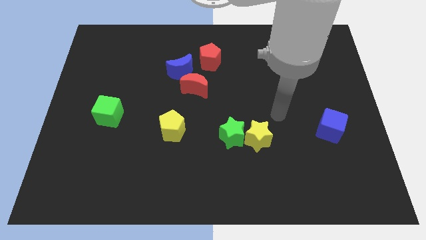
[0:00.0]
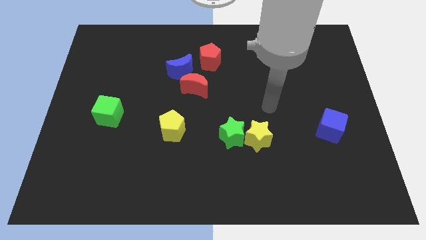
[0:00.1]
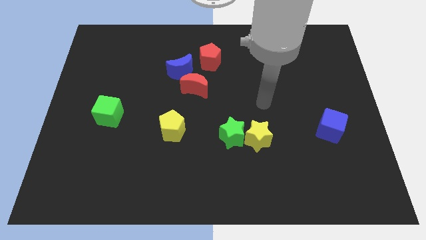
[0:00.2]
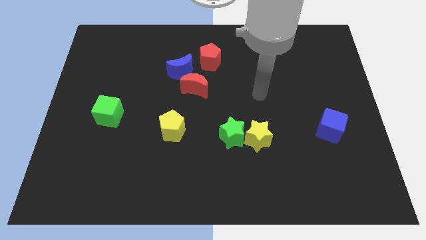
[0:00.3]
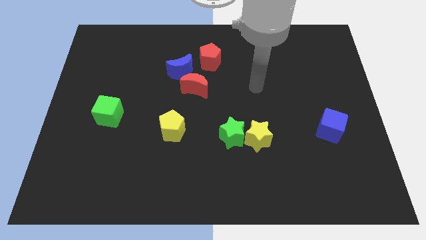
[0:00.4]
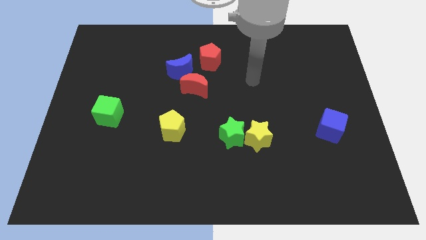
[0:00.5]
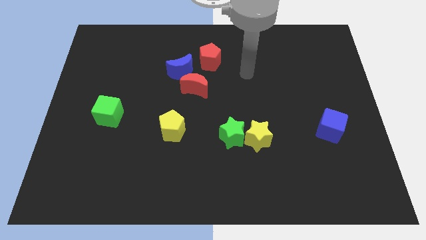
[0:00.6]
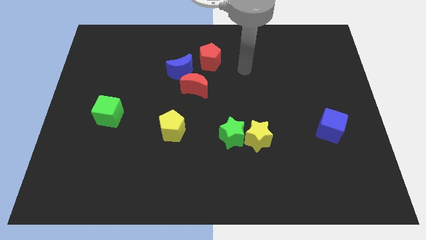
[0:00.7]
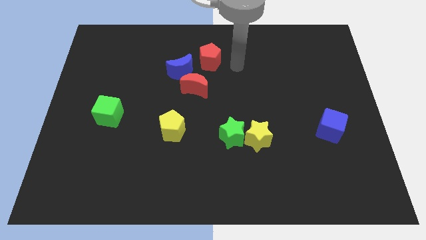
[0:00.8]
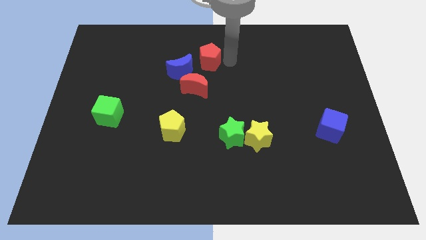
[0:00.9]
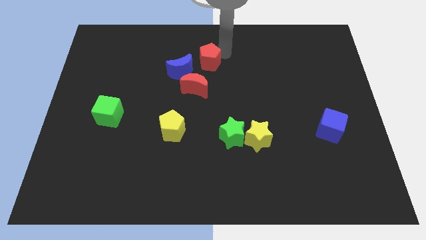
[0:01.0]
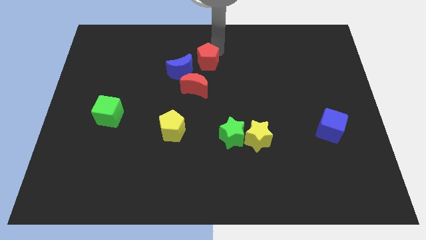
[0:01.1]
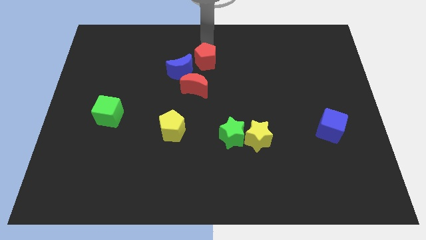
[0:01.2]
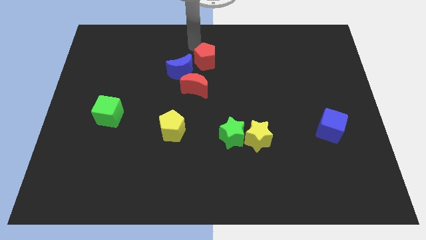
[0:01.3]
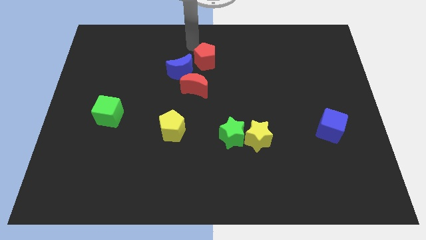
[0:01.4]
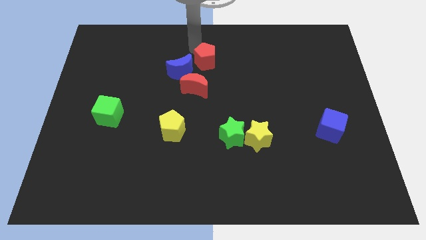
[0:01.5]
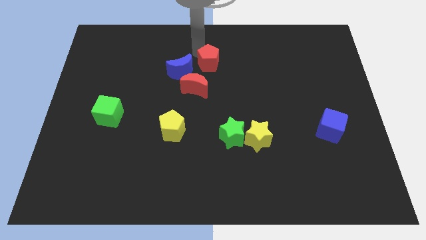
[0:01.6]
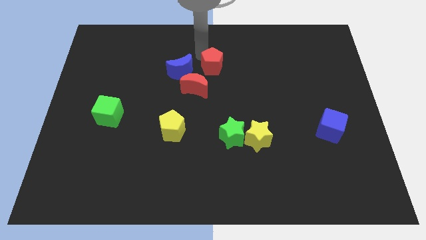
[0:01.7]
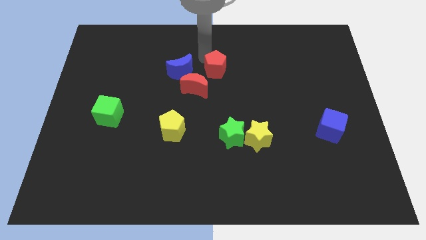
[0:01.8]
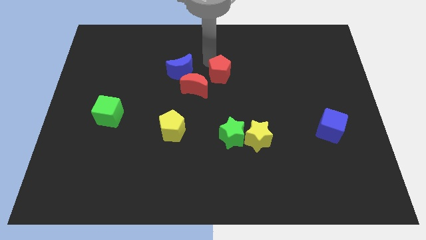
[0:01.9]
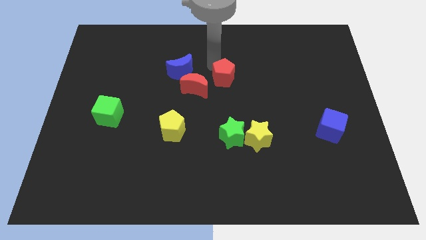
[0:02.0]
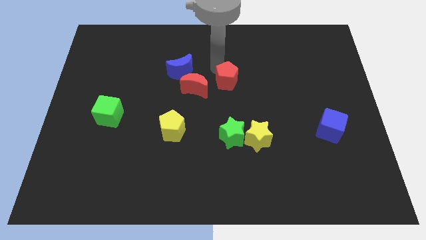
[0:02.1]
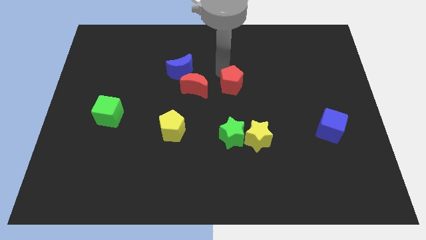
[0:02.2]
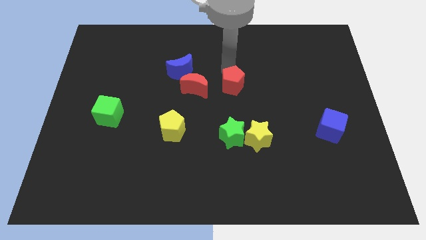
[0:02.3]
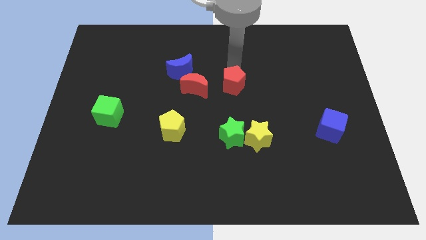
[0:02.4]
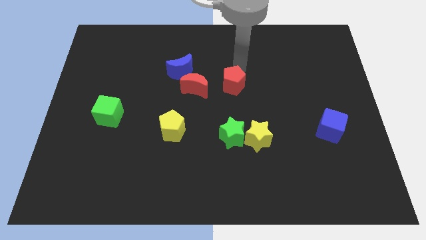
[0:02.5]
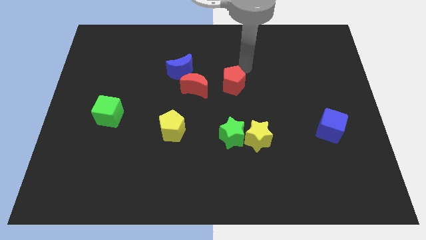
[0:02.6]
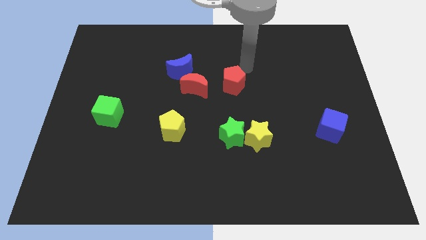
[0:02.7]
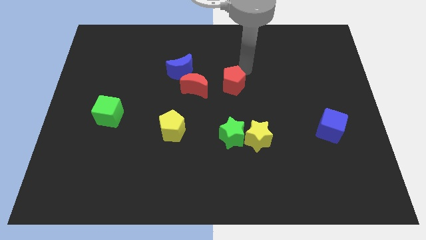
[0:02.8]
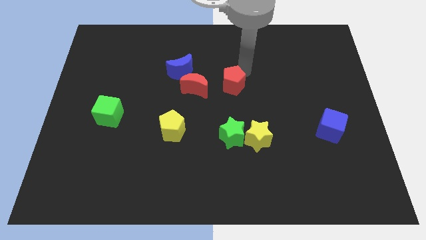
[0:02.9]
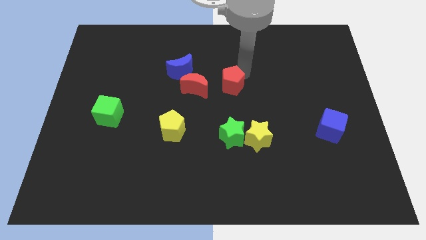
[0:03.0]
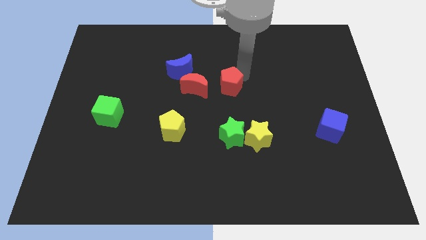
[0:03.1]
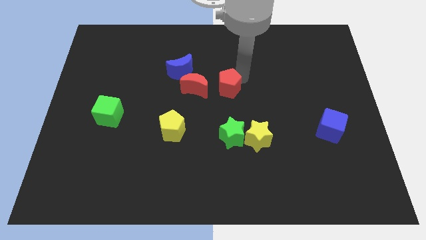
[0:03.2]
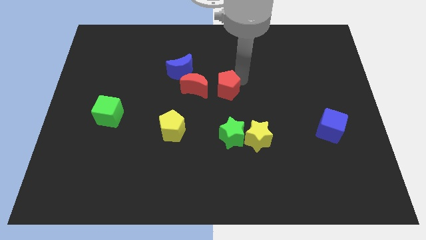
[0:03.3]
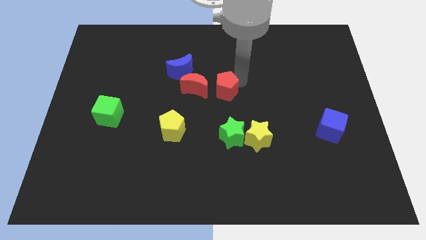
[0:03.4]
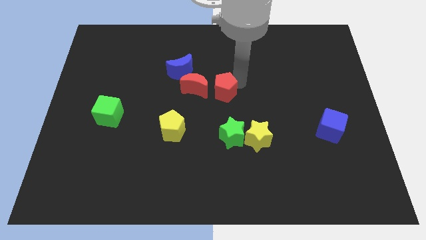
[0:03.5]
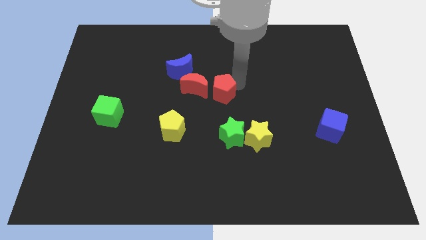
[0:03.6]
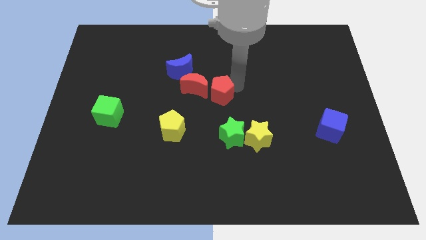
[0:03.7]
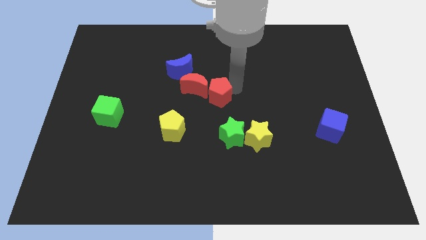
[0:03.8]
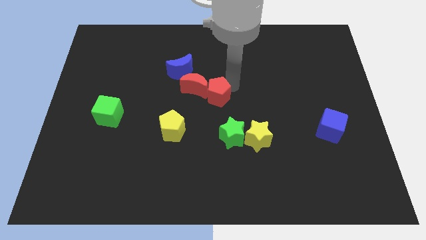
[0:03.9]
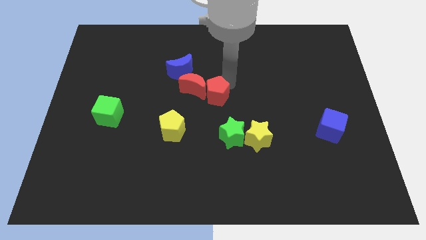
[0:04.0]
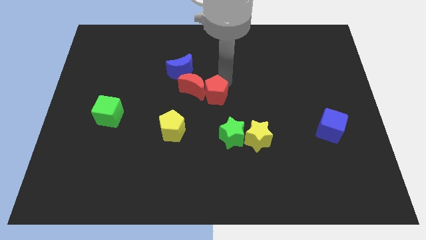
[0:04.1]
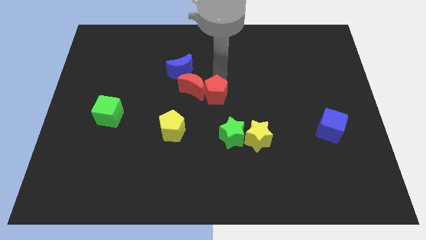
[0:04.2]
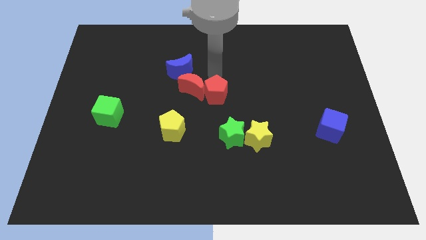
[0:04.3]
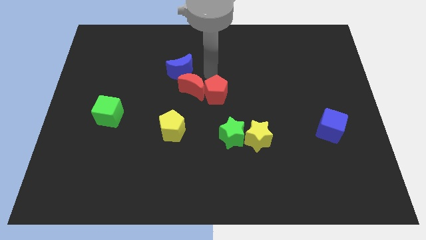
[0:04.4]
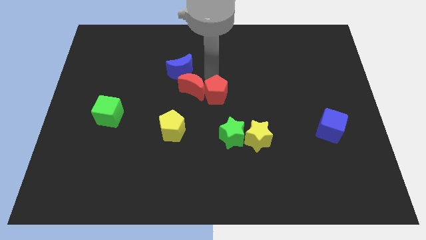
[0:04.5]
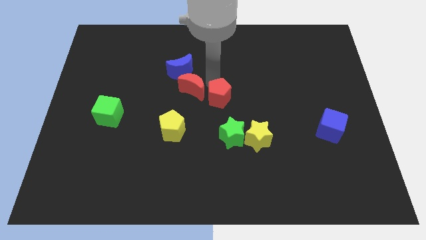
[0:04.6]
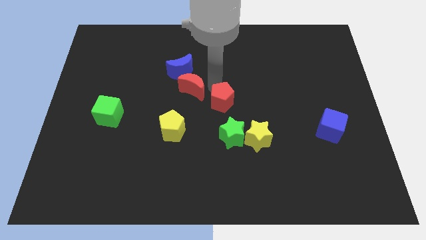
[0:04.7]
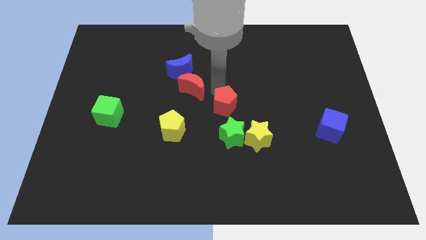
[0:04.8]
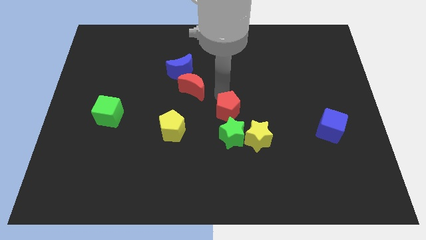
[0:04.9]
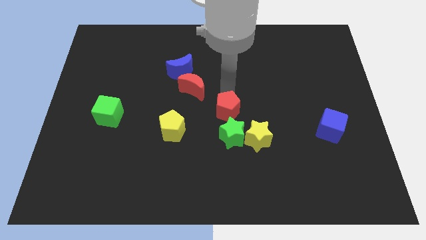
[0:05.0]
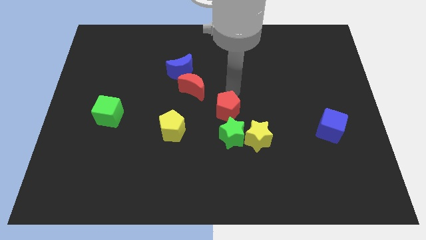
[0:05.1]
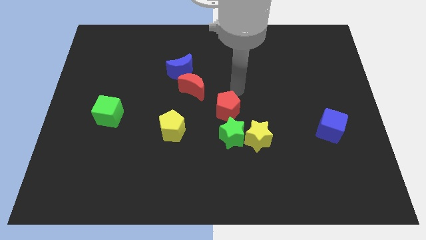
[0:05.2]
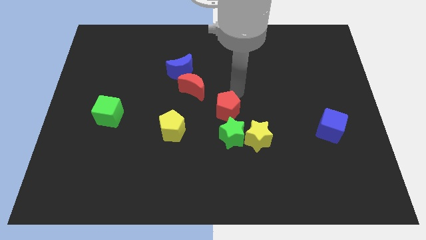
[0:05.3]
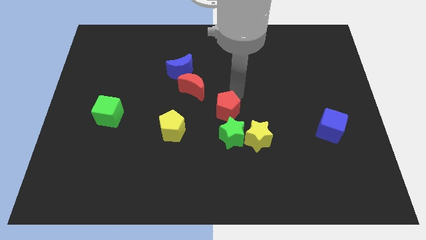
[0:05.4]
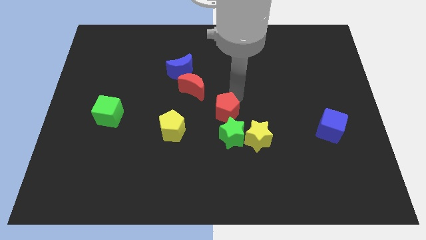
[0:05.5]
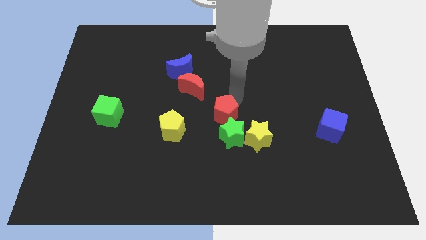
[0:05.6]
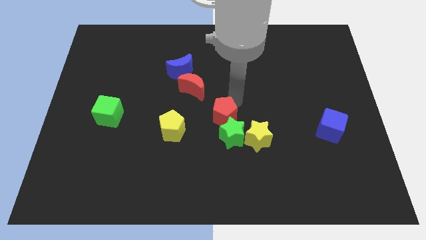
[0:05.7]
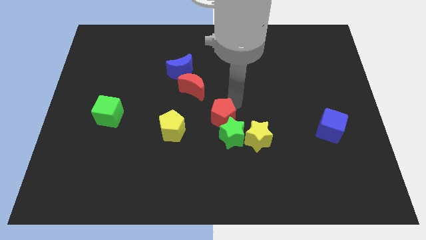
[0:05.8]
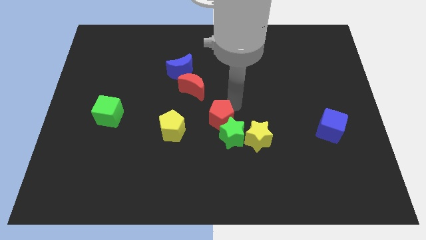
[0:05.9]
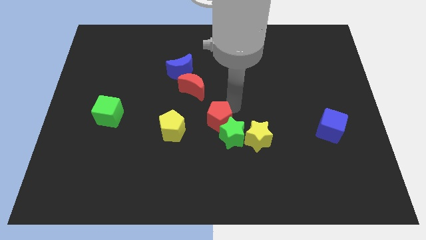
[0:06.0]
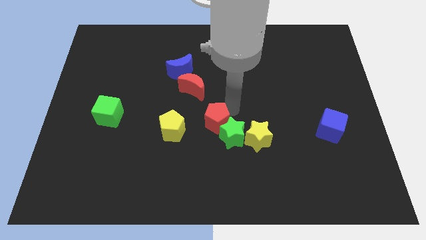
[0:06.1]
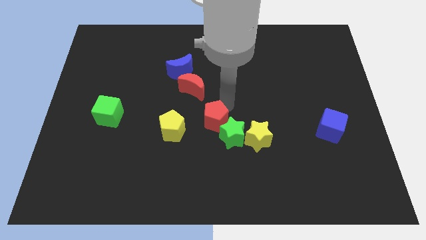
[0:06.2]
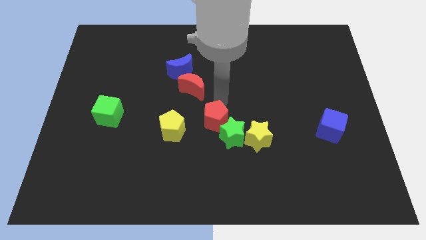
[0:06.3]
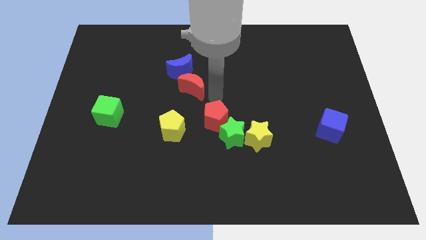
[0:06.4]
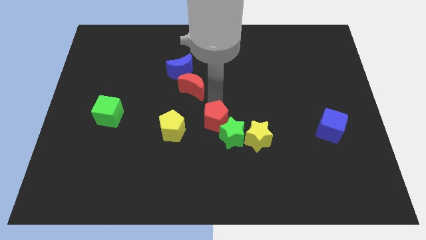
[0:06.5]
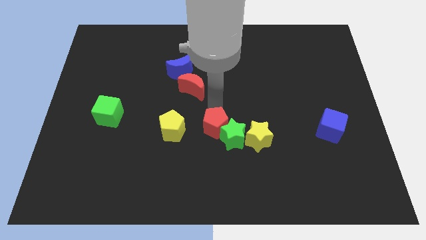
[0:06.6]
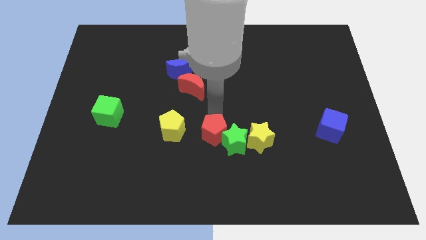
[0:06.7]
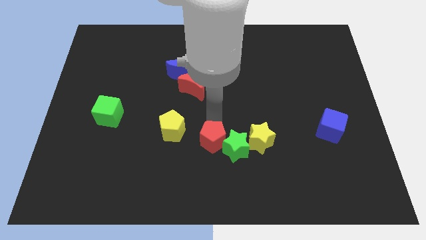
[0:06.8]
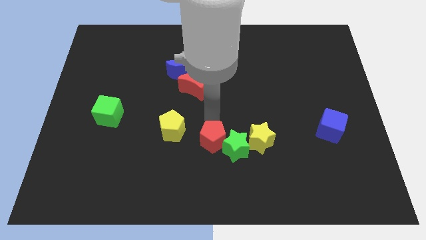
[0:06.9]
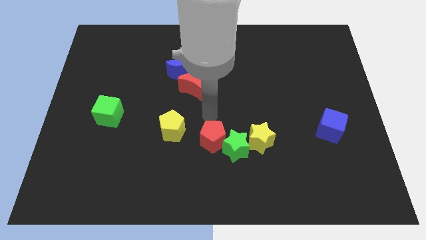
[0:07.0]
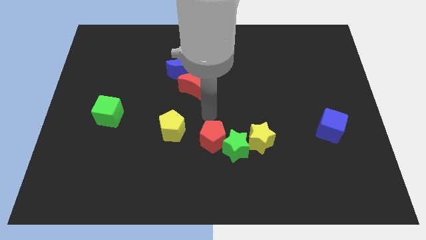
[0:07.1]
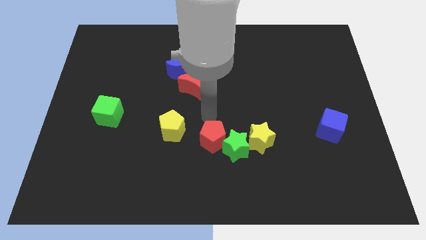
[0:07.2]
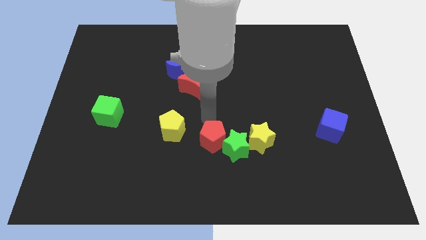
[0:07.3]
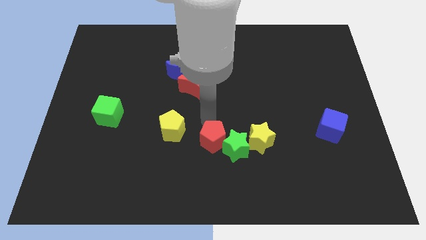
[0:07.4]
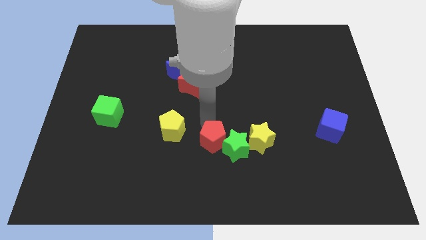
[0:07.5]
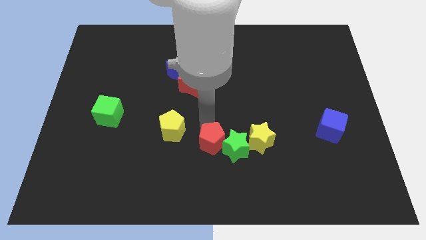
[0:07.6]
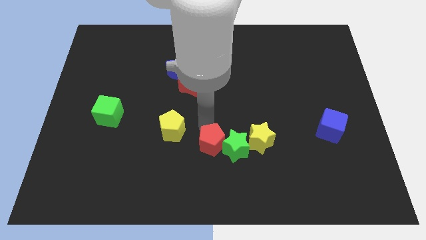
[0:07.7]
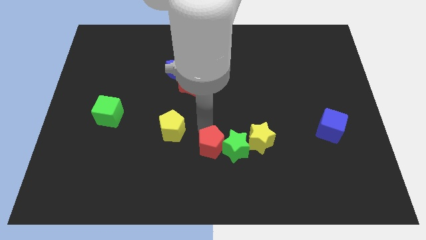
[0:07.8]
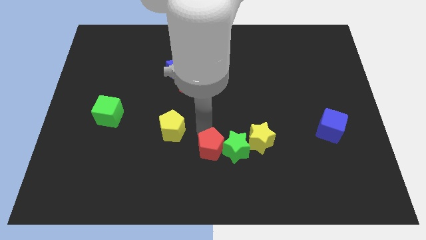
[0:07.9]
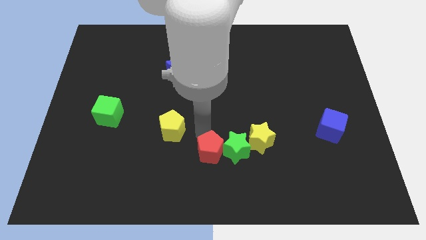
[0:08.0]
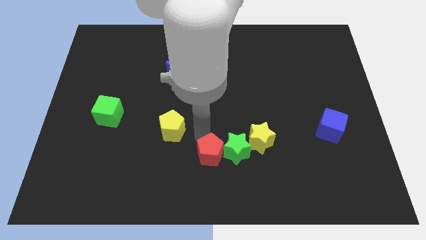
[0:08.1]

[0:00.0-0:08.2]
push the red pentagon to the bottom
